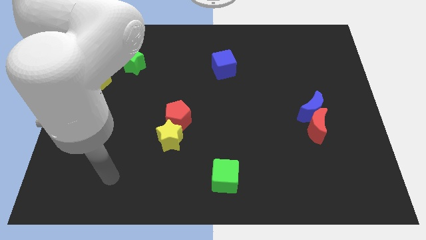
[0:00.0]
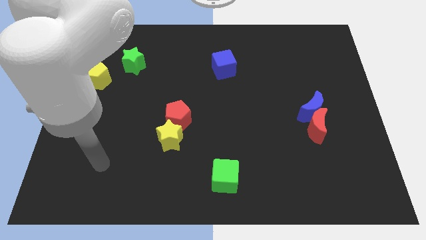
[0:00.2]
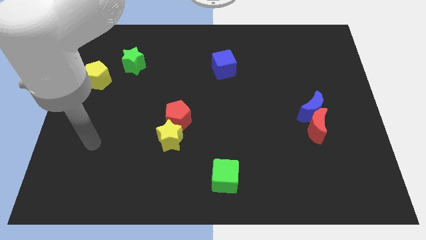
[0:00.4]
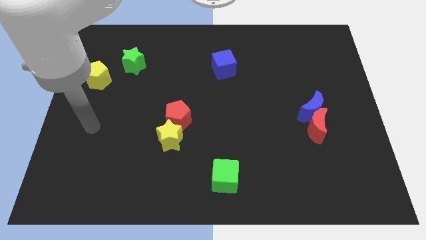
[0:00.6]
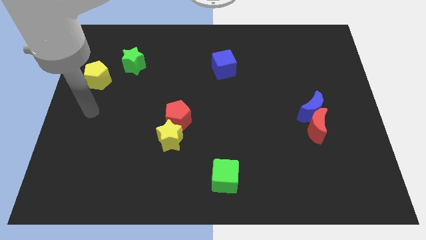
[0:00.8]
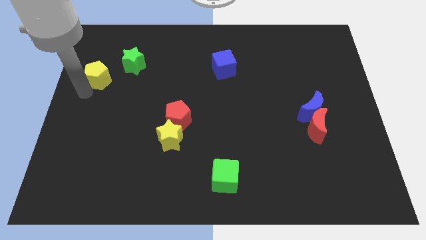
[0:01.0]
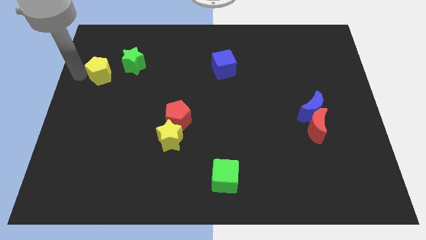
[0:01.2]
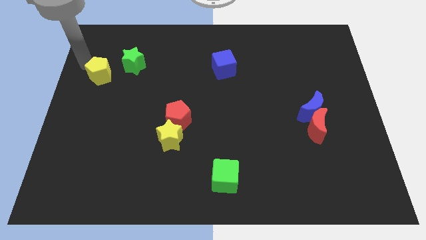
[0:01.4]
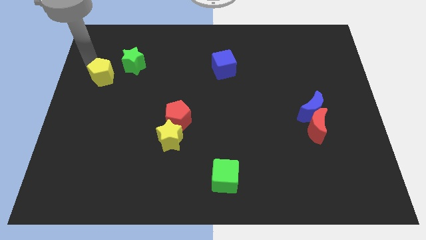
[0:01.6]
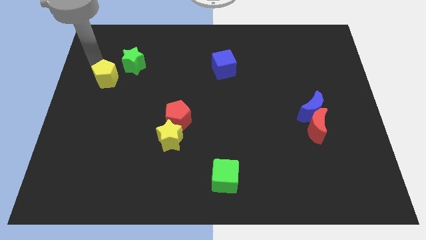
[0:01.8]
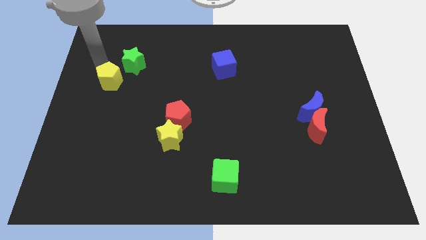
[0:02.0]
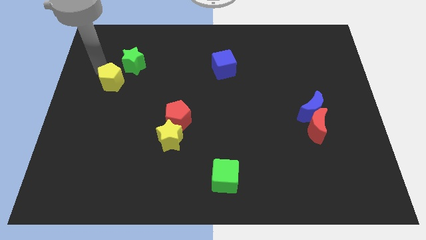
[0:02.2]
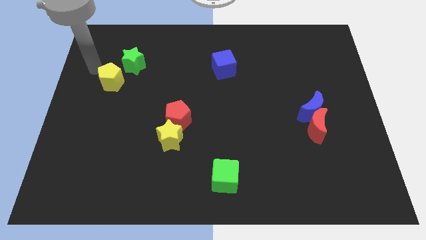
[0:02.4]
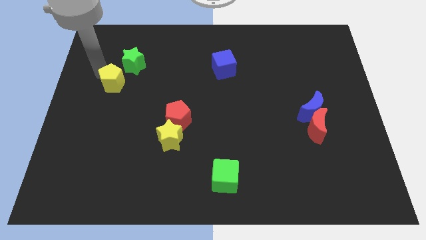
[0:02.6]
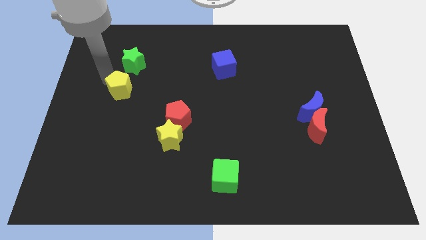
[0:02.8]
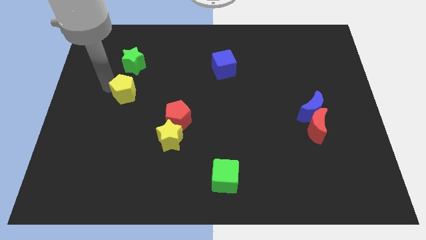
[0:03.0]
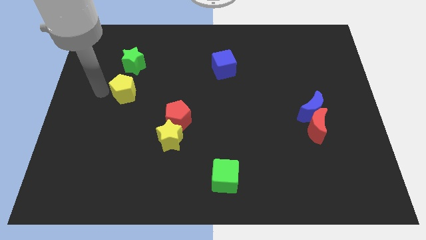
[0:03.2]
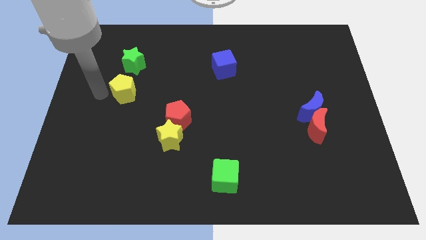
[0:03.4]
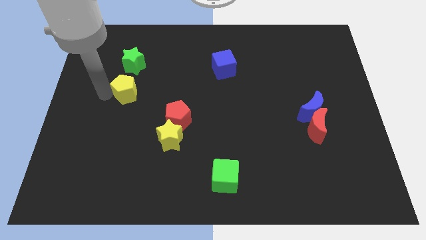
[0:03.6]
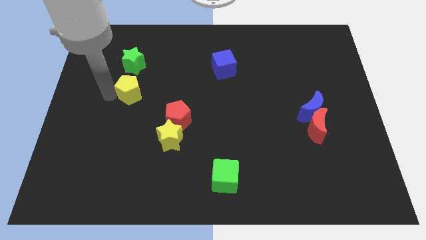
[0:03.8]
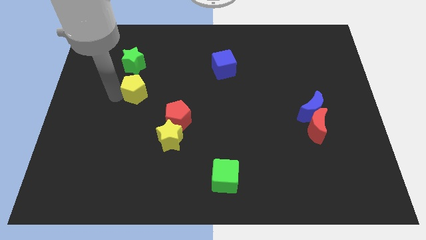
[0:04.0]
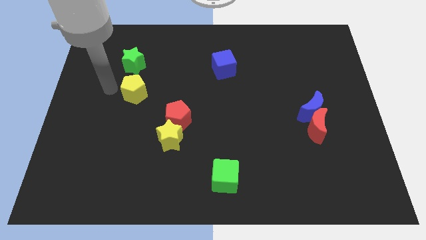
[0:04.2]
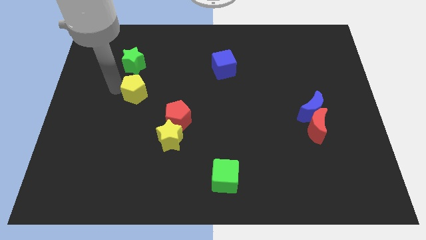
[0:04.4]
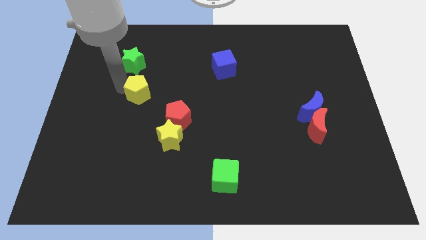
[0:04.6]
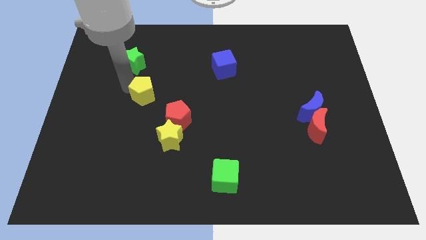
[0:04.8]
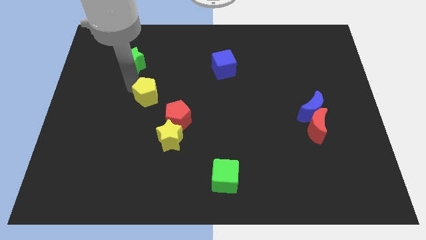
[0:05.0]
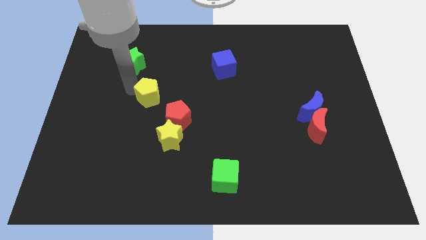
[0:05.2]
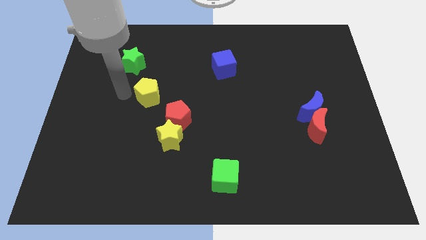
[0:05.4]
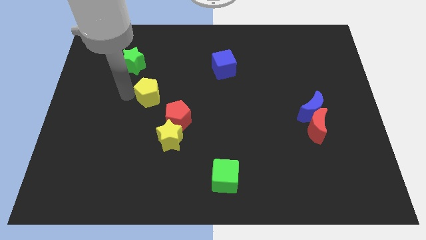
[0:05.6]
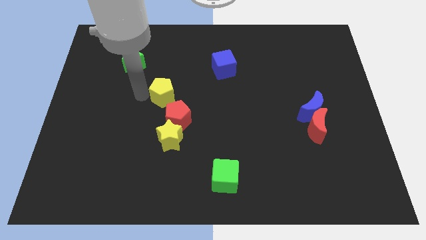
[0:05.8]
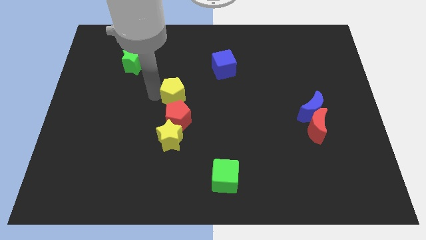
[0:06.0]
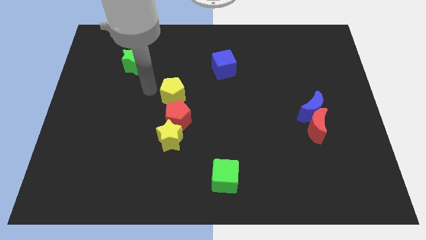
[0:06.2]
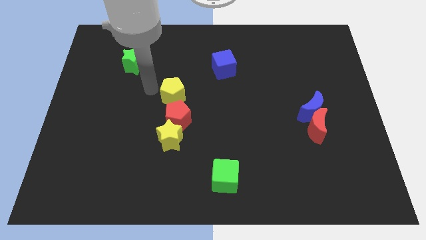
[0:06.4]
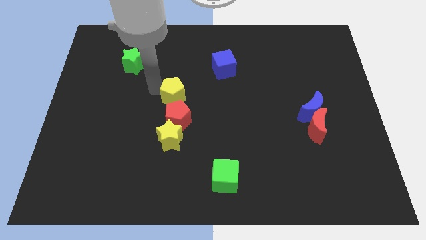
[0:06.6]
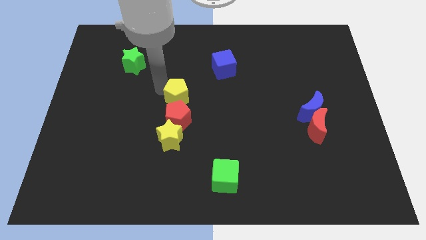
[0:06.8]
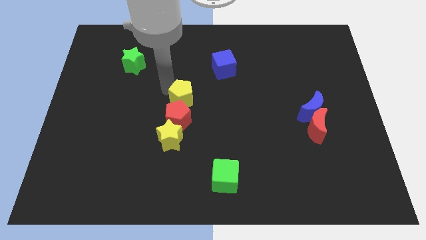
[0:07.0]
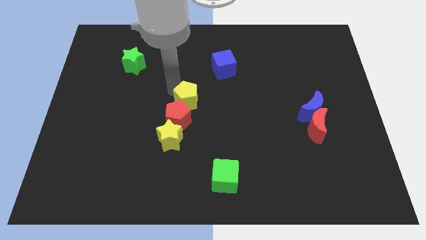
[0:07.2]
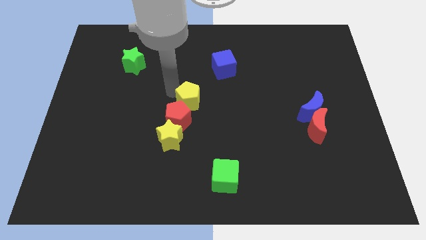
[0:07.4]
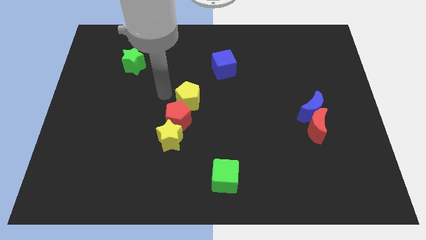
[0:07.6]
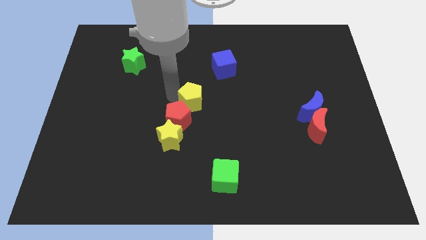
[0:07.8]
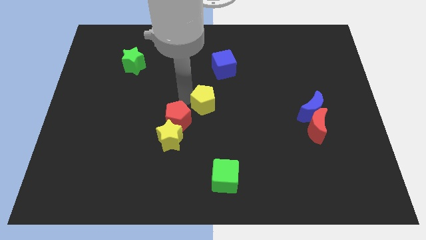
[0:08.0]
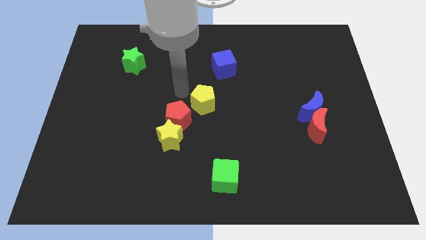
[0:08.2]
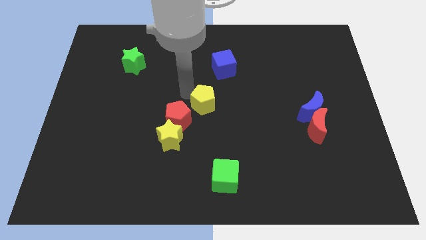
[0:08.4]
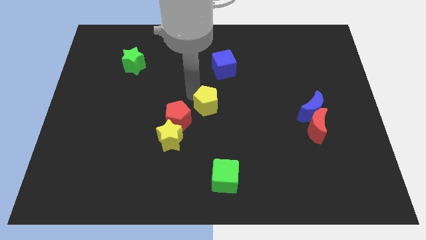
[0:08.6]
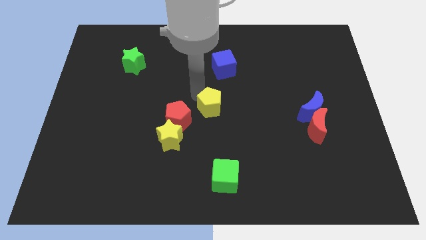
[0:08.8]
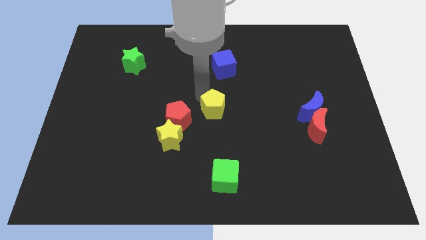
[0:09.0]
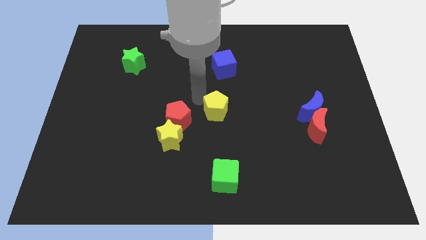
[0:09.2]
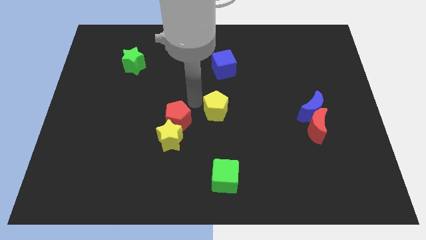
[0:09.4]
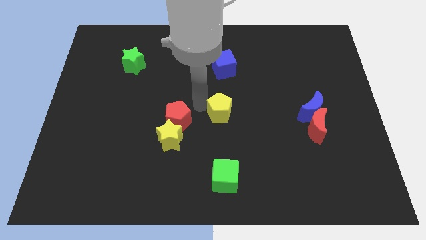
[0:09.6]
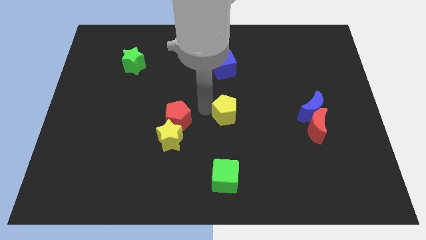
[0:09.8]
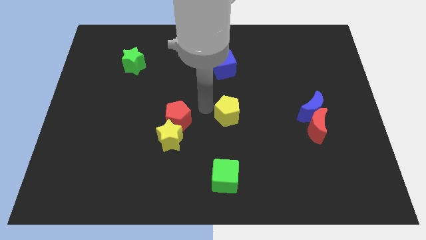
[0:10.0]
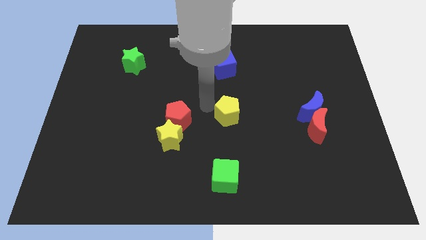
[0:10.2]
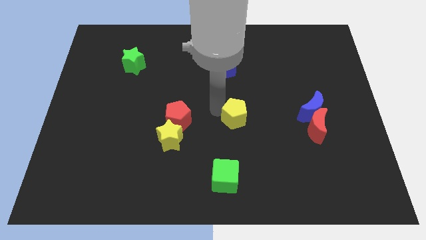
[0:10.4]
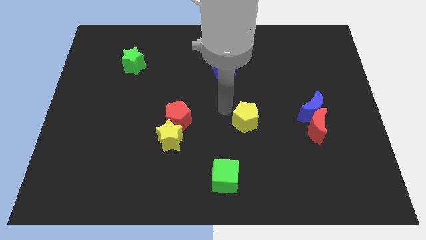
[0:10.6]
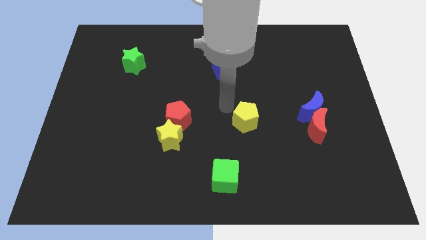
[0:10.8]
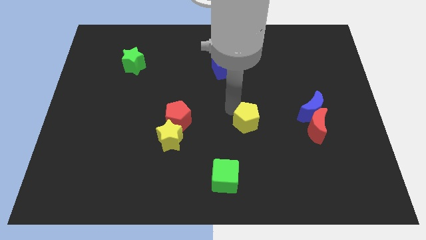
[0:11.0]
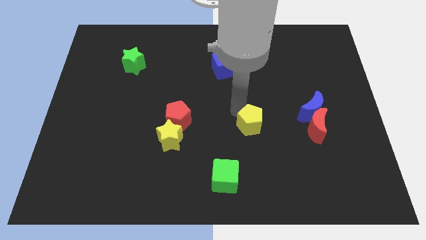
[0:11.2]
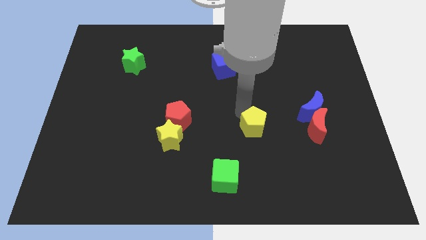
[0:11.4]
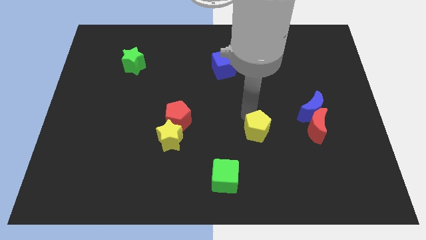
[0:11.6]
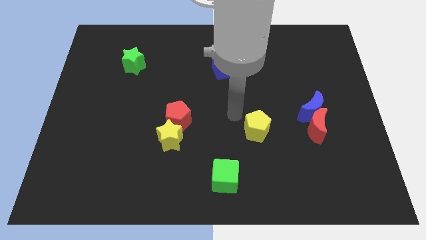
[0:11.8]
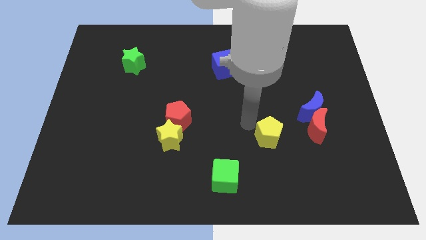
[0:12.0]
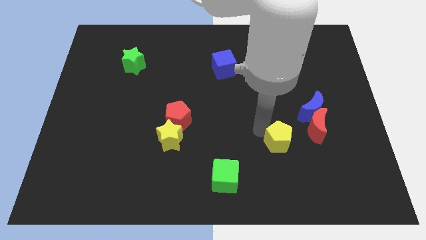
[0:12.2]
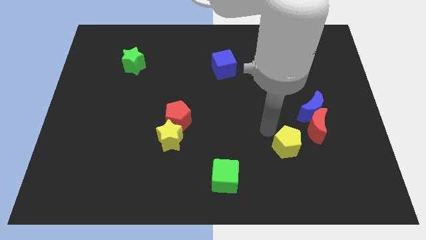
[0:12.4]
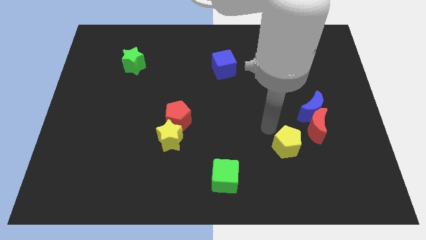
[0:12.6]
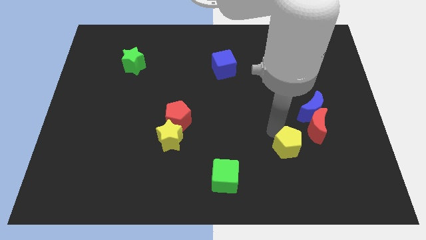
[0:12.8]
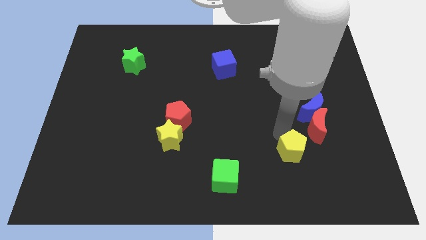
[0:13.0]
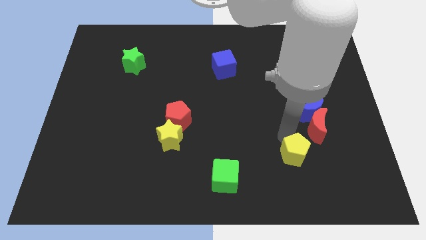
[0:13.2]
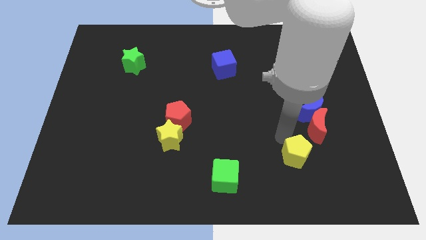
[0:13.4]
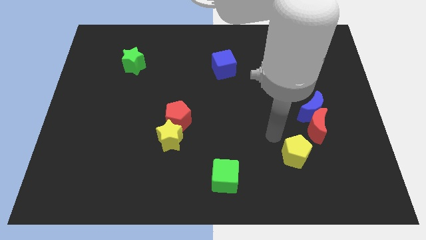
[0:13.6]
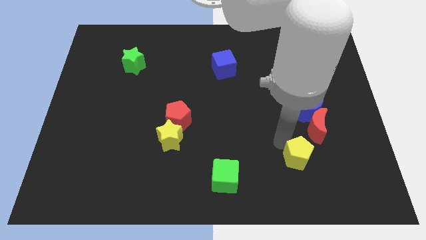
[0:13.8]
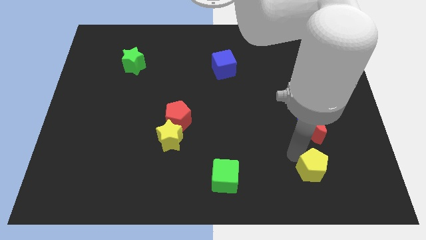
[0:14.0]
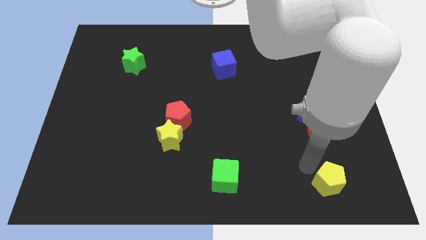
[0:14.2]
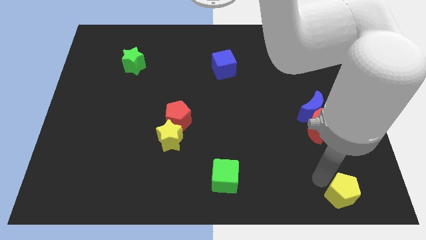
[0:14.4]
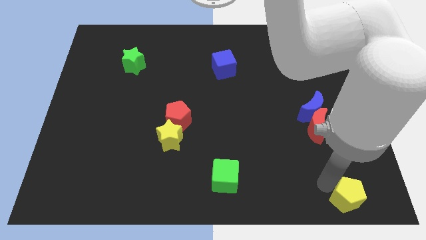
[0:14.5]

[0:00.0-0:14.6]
slide the yellow pentagon to the lower right corner
